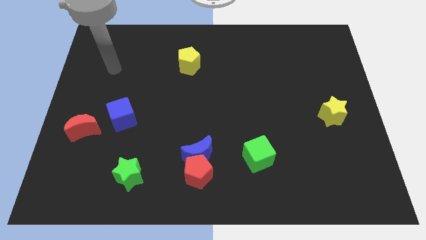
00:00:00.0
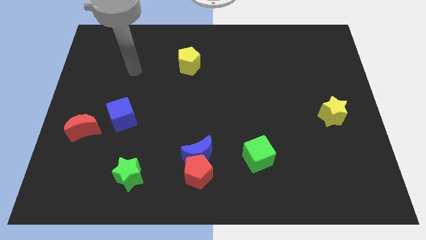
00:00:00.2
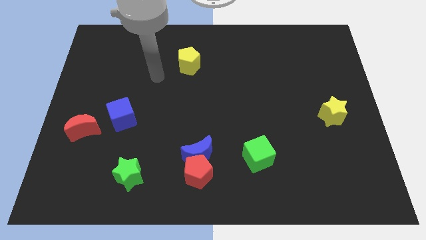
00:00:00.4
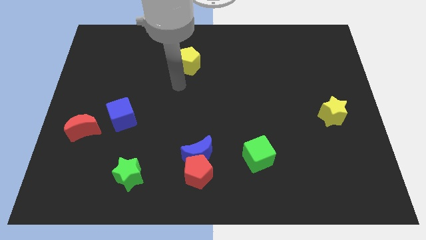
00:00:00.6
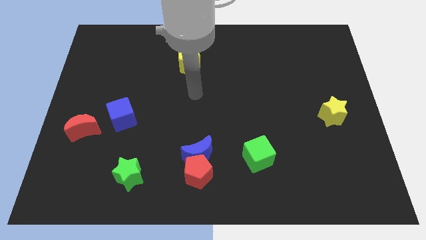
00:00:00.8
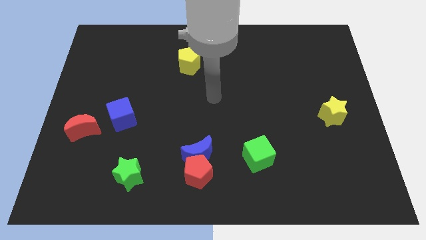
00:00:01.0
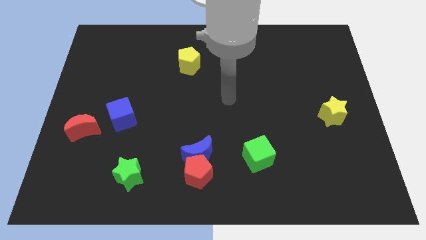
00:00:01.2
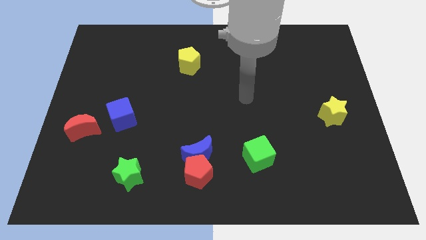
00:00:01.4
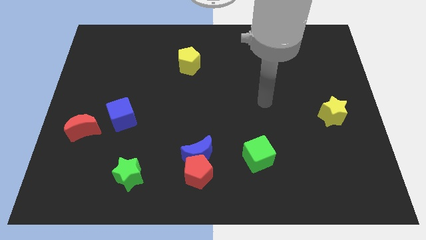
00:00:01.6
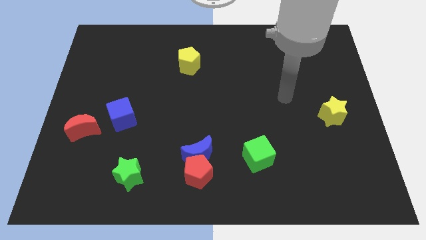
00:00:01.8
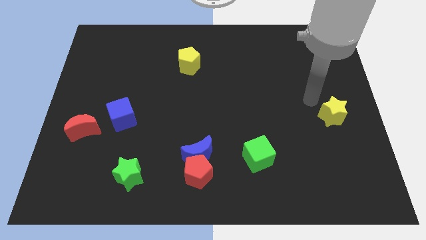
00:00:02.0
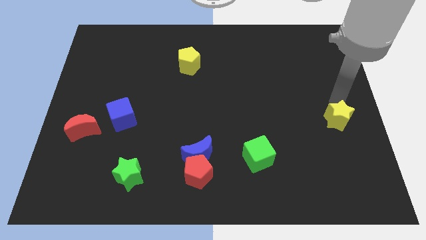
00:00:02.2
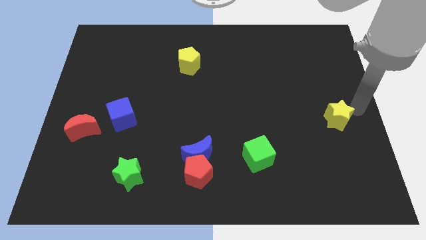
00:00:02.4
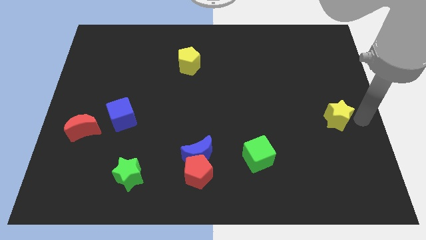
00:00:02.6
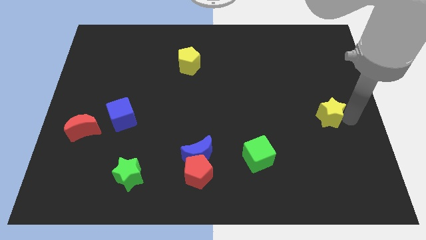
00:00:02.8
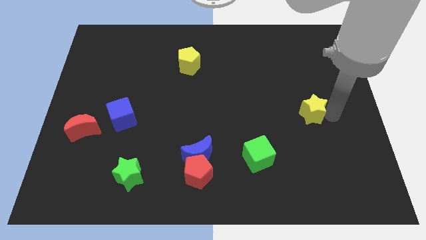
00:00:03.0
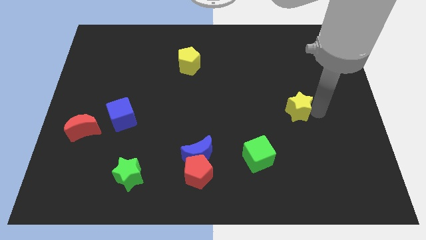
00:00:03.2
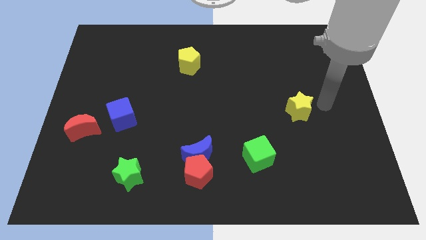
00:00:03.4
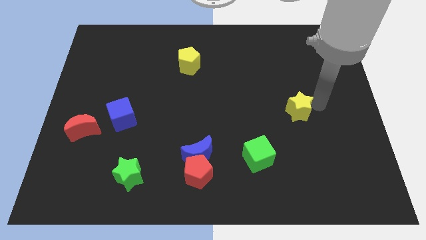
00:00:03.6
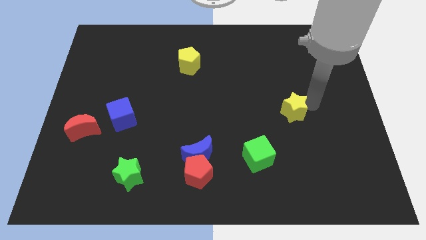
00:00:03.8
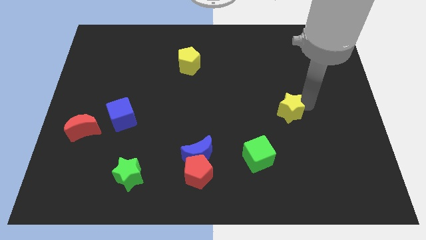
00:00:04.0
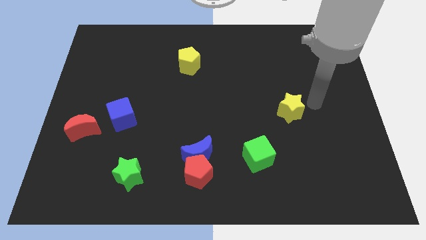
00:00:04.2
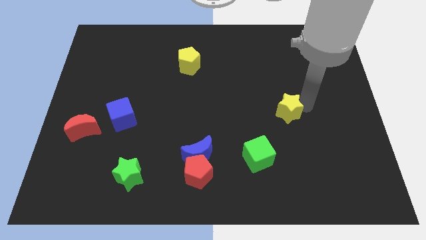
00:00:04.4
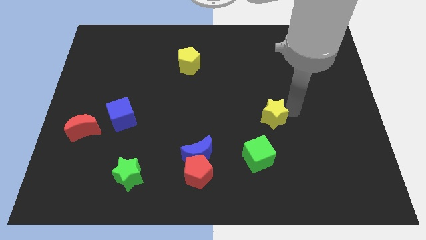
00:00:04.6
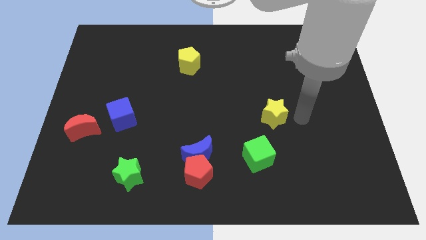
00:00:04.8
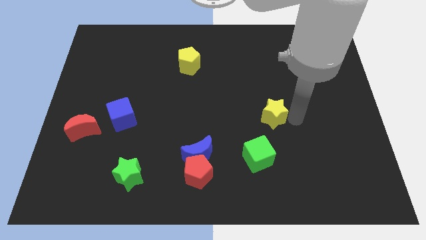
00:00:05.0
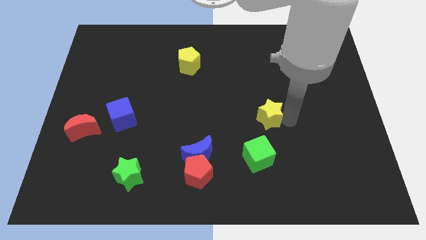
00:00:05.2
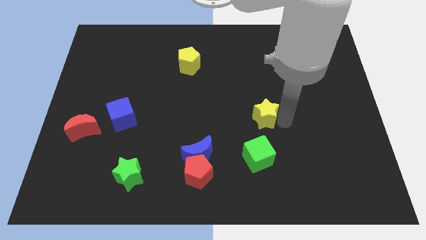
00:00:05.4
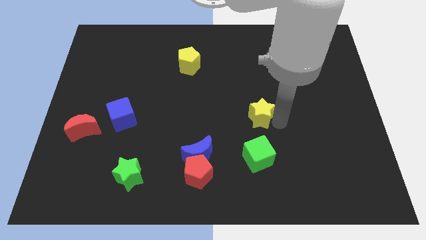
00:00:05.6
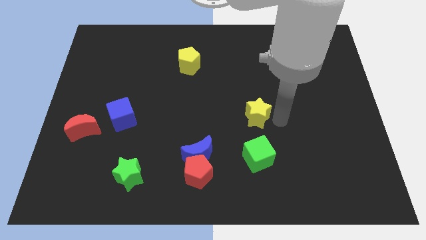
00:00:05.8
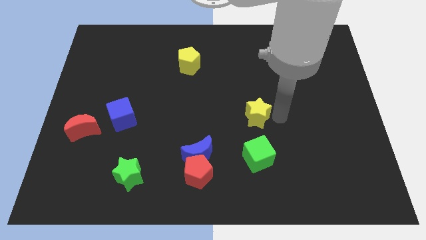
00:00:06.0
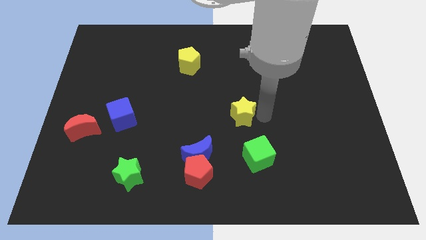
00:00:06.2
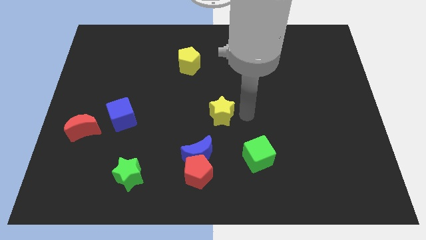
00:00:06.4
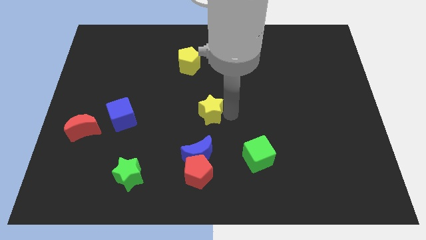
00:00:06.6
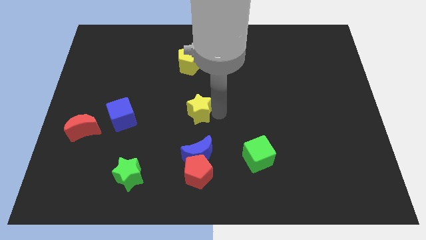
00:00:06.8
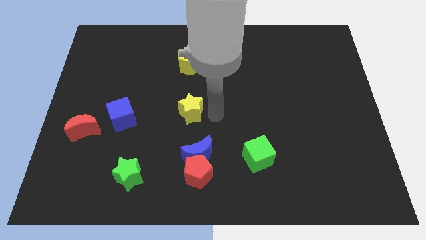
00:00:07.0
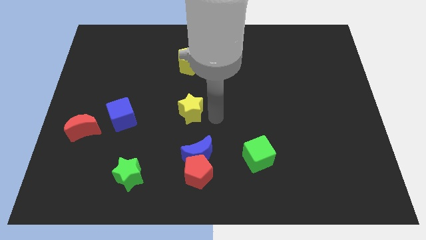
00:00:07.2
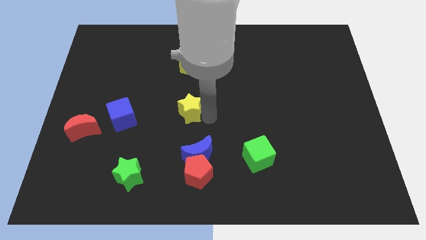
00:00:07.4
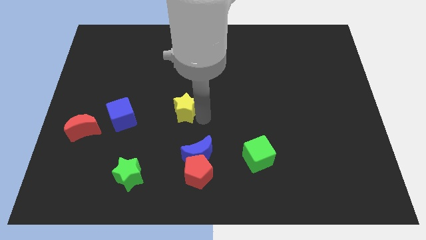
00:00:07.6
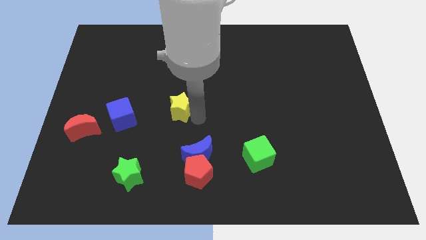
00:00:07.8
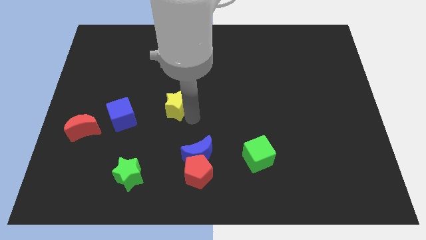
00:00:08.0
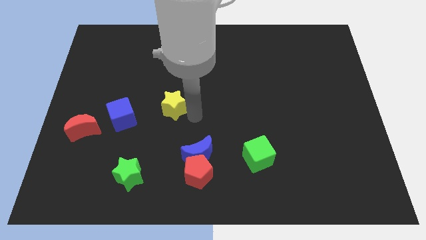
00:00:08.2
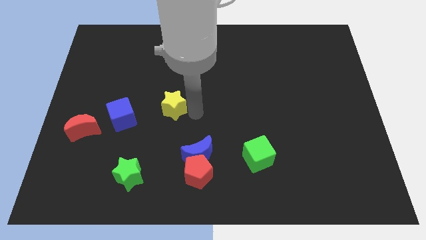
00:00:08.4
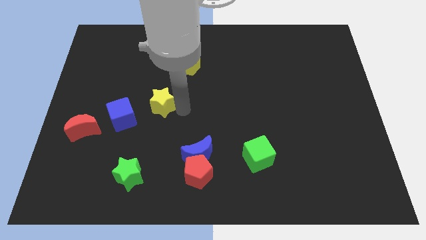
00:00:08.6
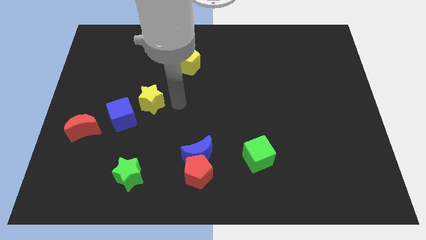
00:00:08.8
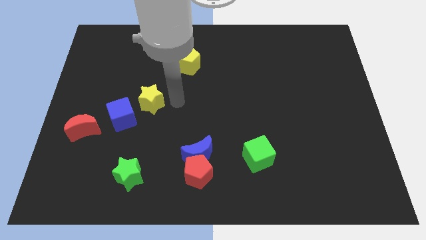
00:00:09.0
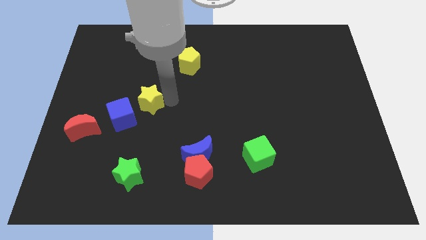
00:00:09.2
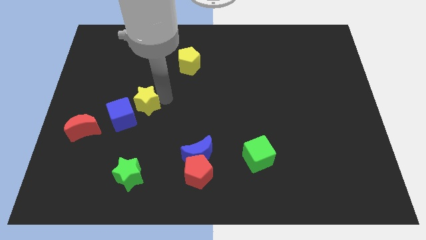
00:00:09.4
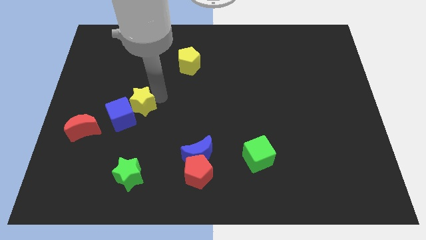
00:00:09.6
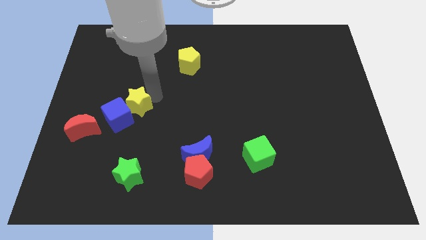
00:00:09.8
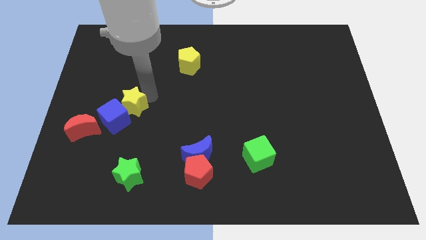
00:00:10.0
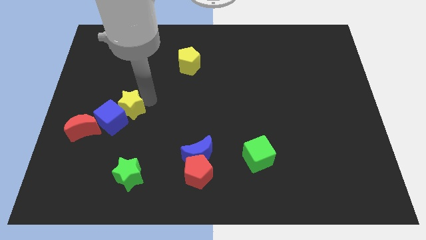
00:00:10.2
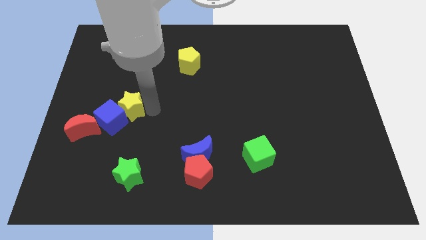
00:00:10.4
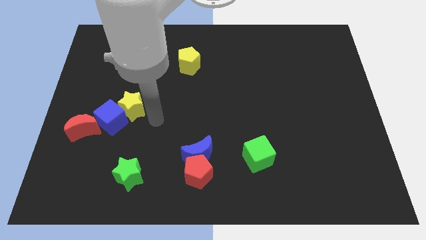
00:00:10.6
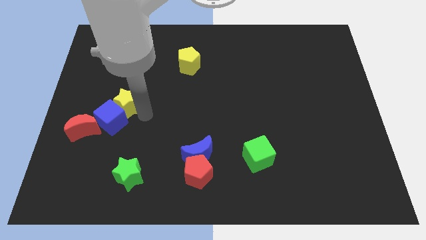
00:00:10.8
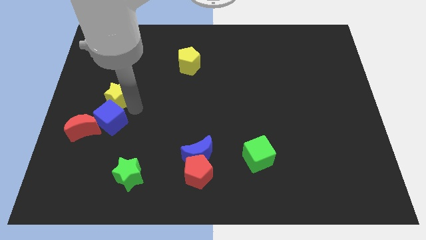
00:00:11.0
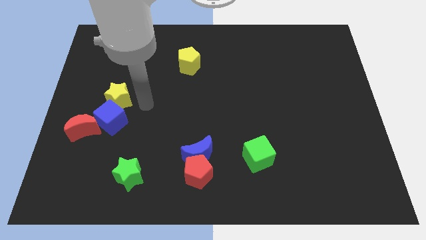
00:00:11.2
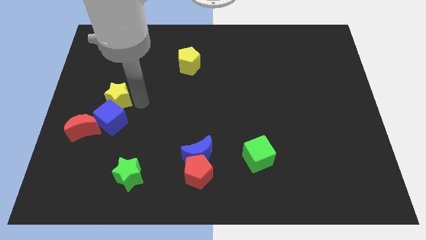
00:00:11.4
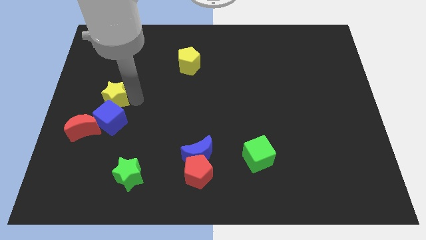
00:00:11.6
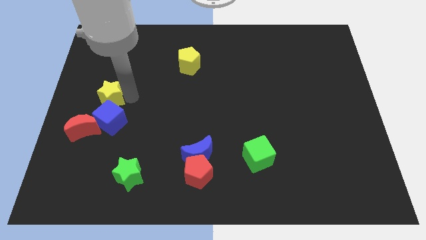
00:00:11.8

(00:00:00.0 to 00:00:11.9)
move the yellow star above the red moon

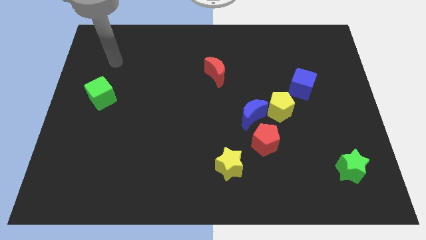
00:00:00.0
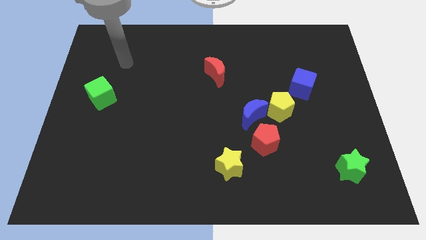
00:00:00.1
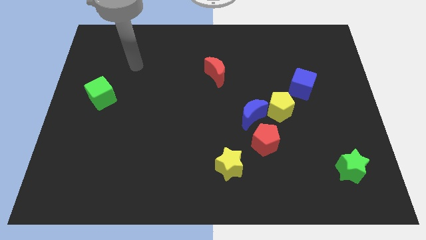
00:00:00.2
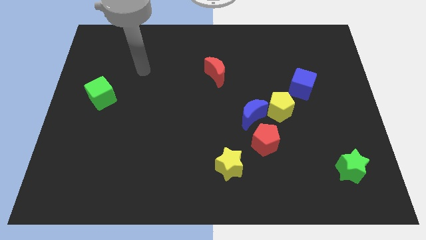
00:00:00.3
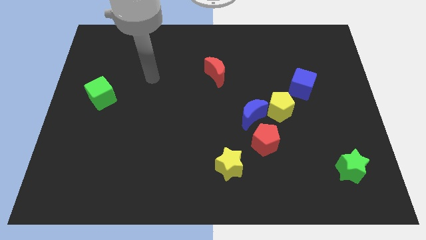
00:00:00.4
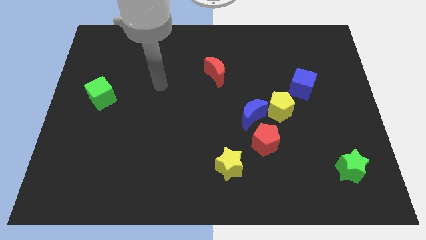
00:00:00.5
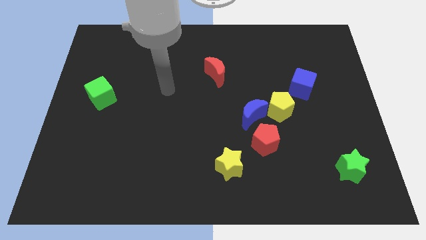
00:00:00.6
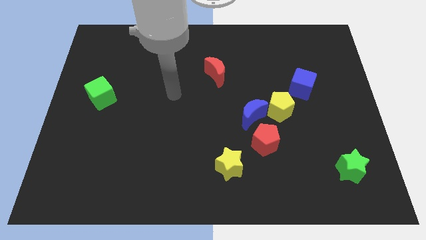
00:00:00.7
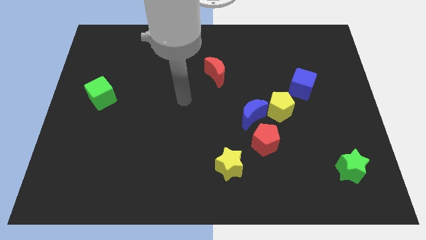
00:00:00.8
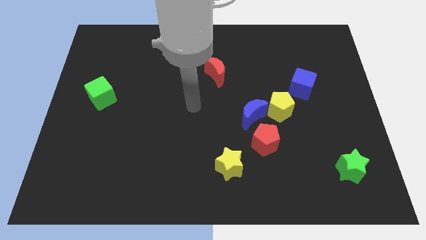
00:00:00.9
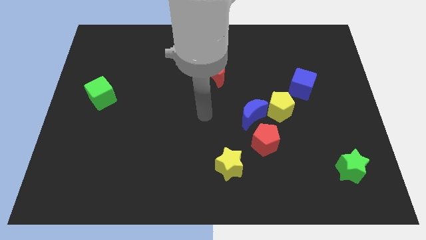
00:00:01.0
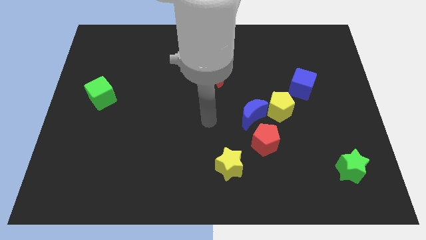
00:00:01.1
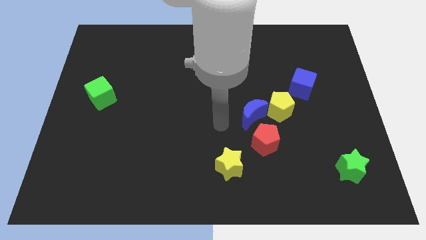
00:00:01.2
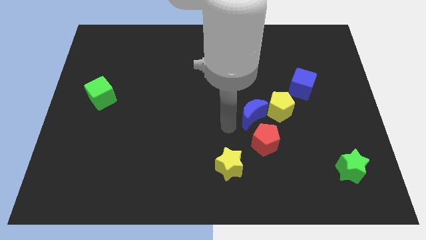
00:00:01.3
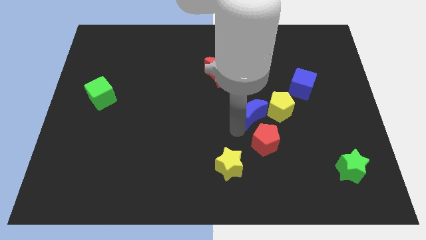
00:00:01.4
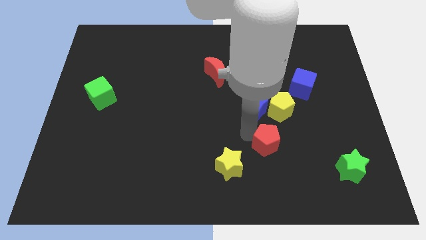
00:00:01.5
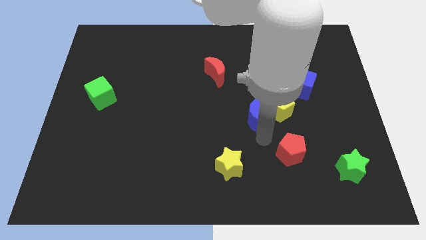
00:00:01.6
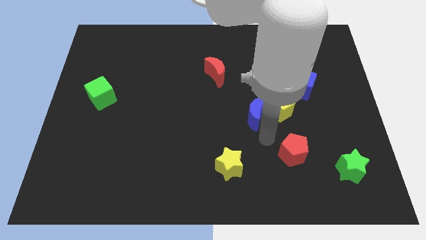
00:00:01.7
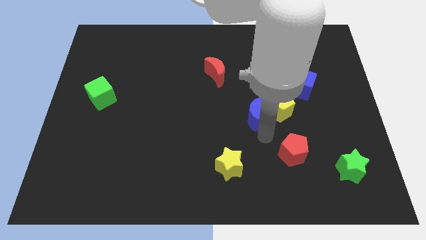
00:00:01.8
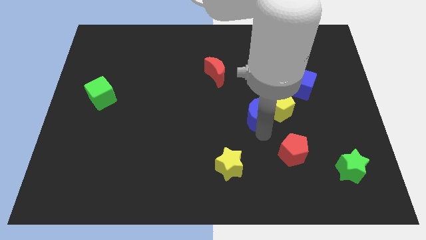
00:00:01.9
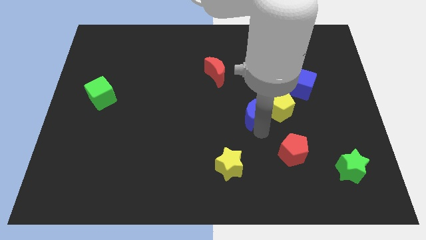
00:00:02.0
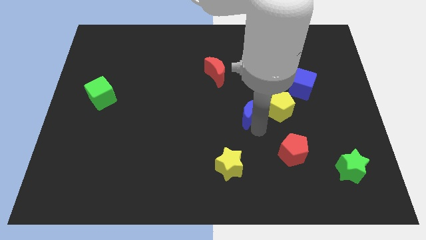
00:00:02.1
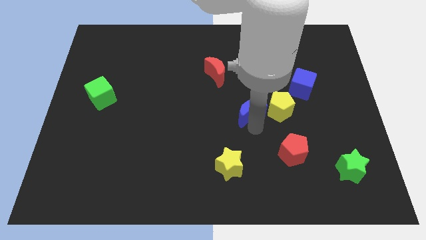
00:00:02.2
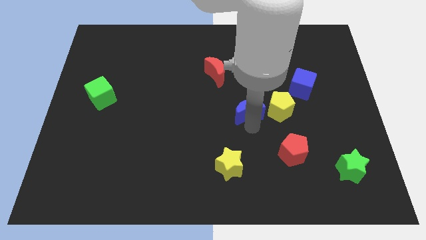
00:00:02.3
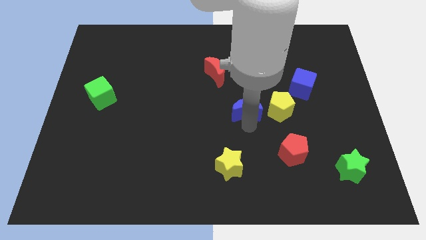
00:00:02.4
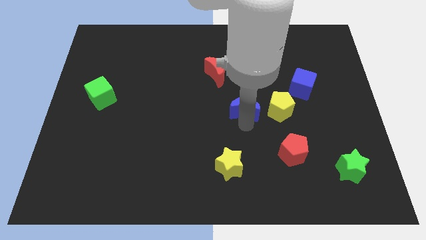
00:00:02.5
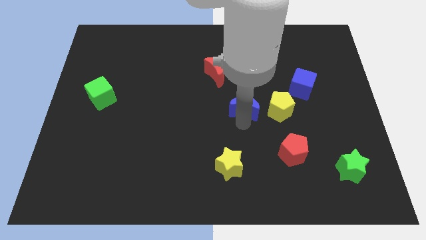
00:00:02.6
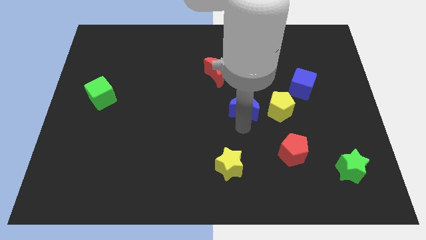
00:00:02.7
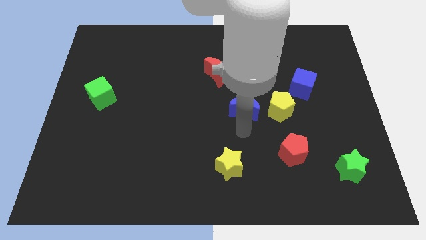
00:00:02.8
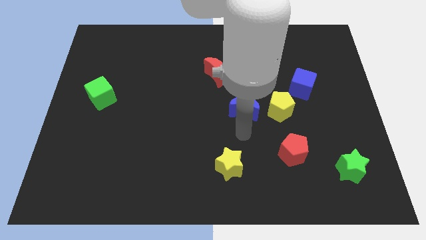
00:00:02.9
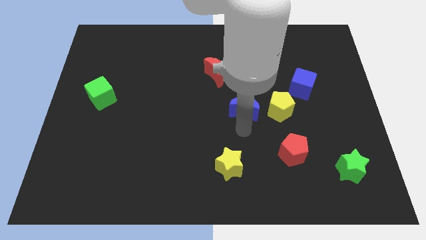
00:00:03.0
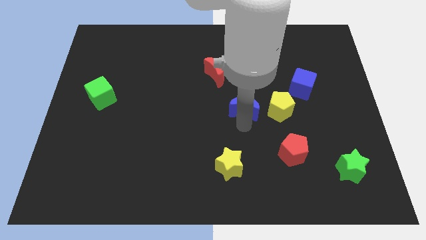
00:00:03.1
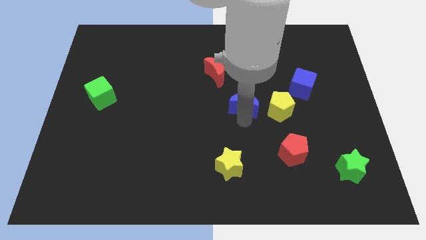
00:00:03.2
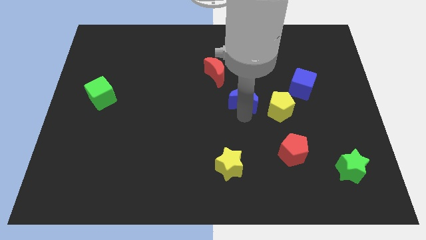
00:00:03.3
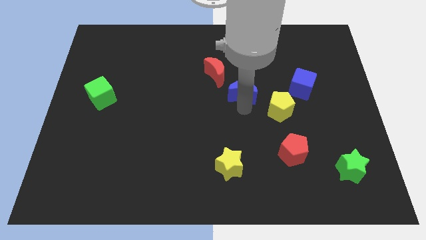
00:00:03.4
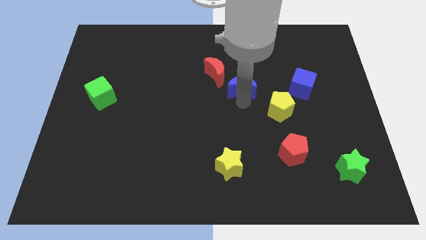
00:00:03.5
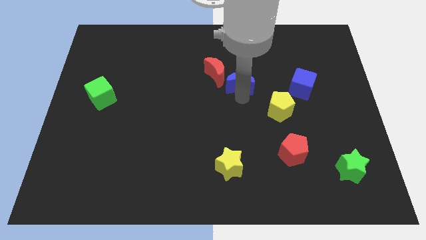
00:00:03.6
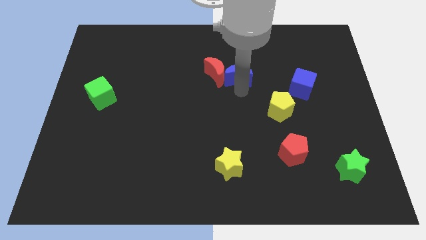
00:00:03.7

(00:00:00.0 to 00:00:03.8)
push the blue moon to the top right side of the red moon
